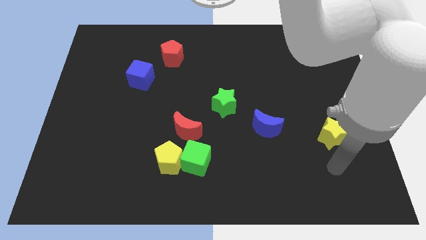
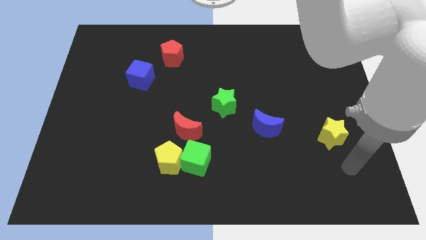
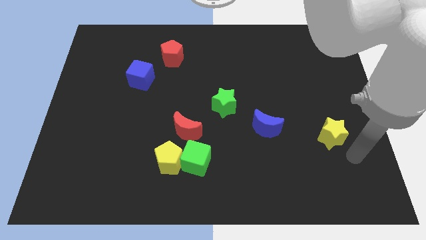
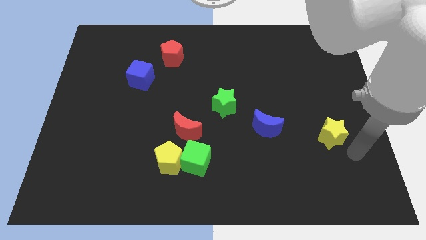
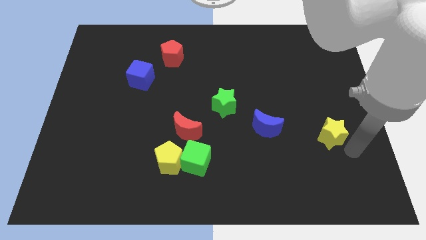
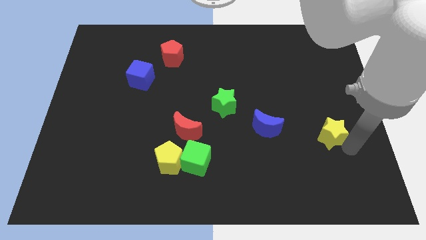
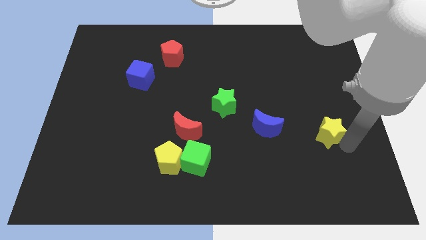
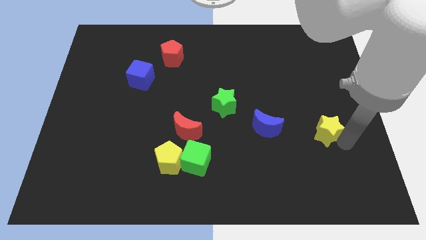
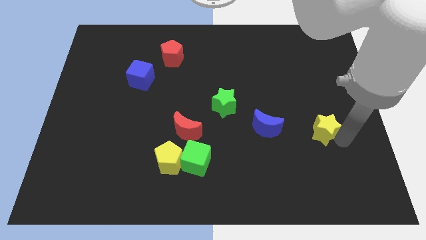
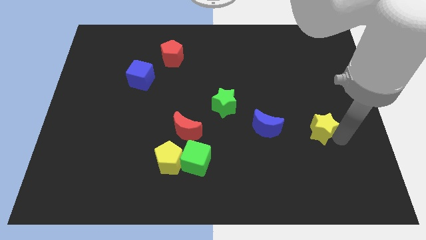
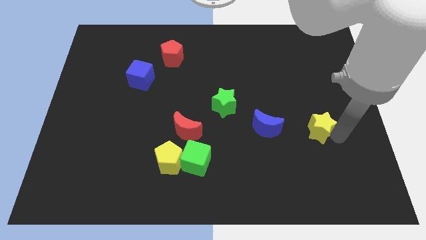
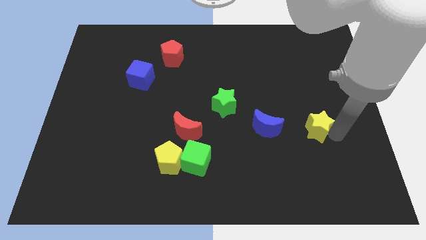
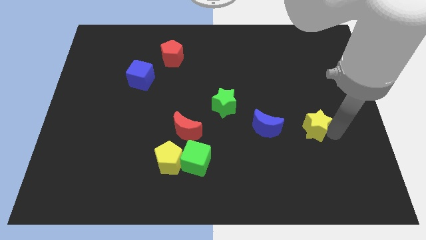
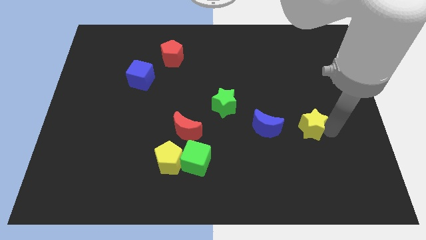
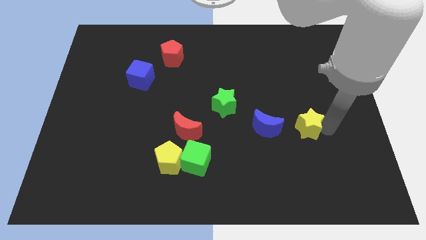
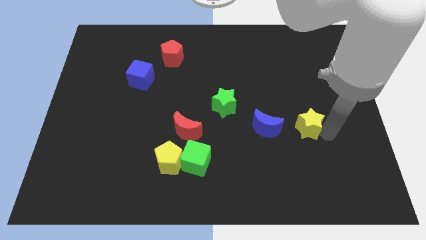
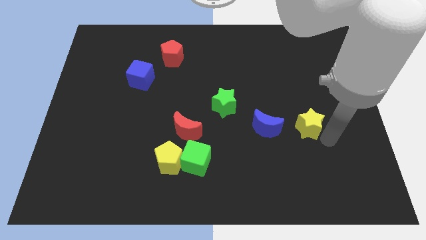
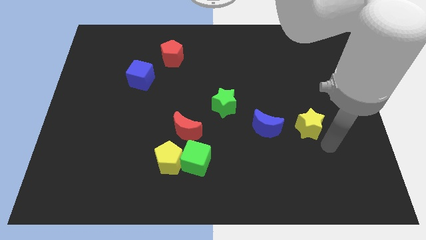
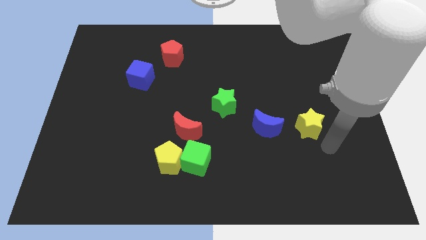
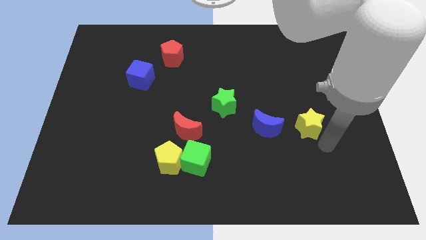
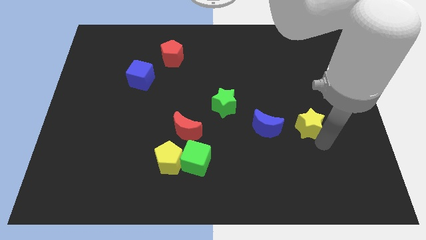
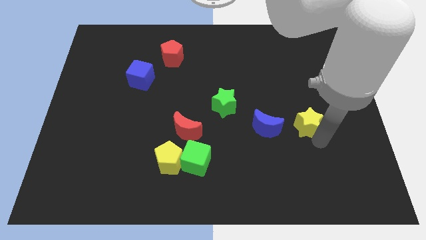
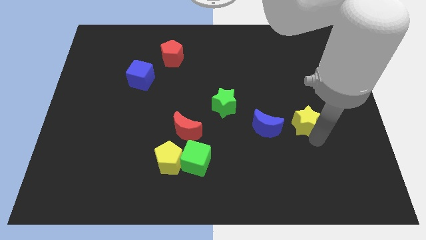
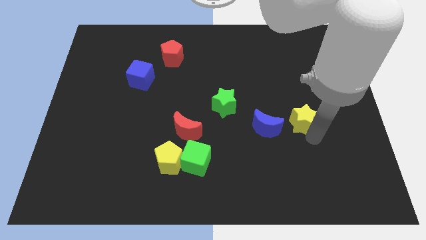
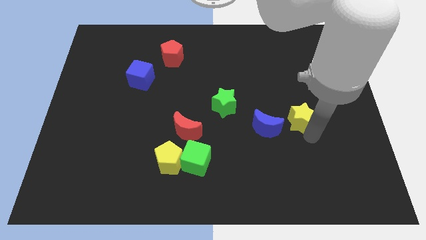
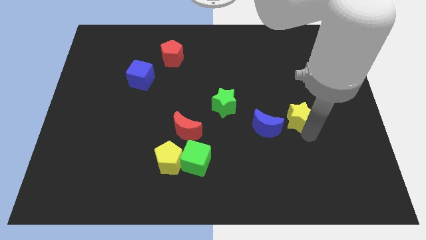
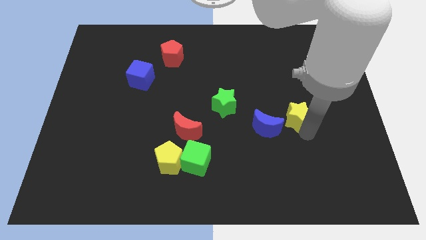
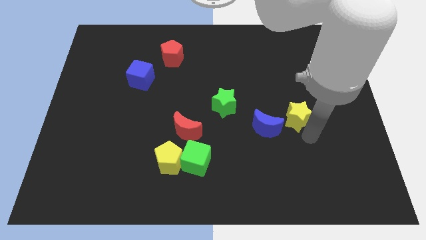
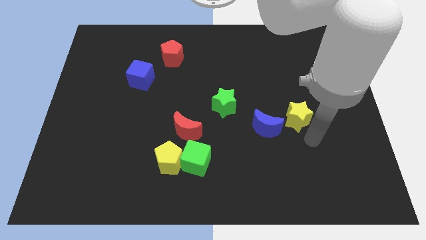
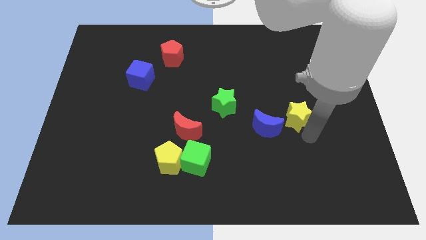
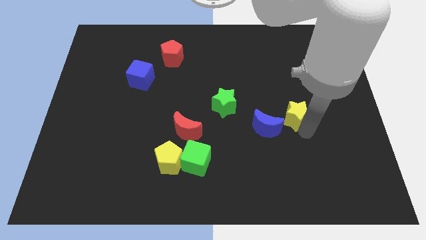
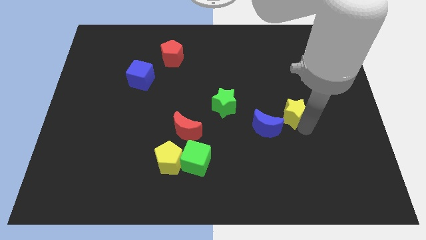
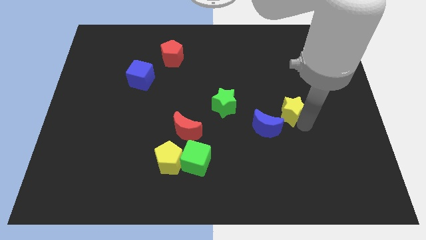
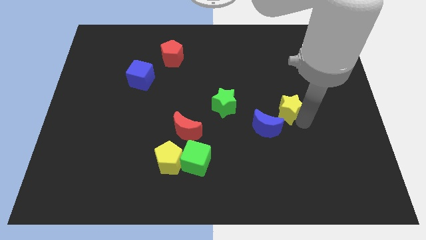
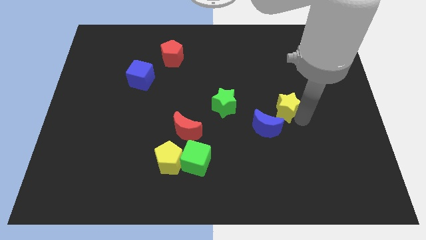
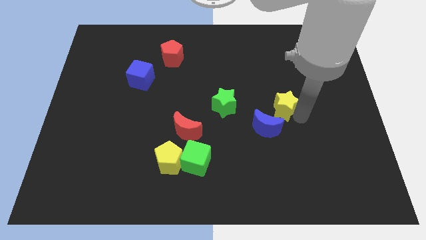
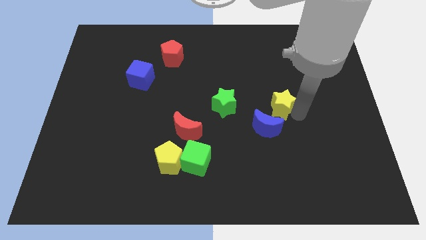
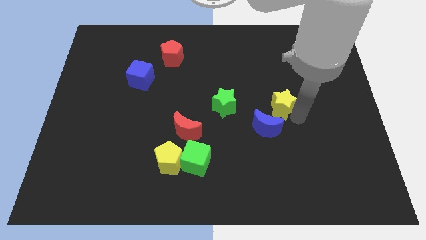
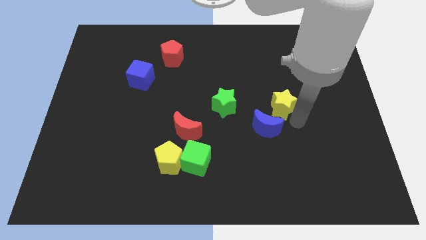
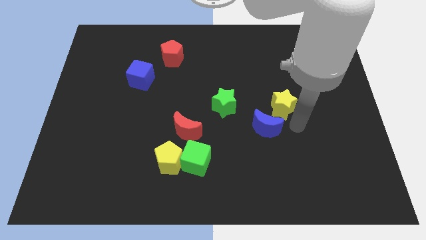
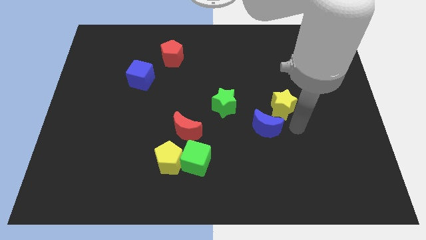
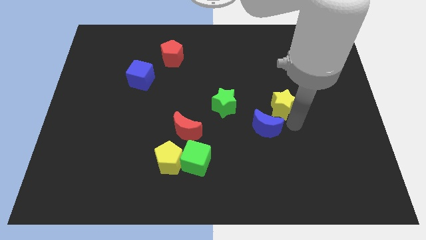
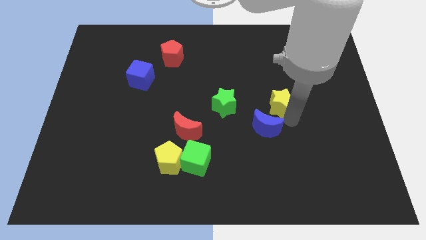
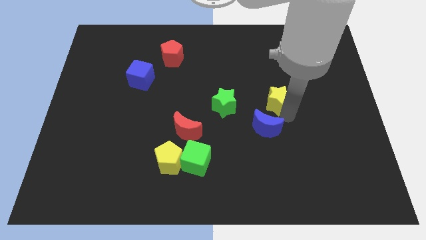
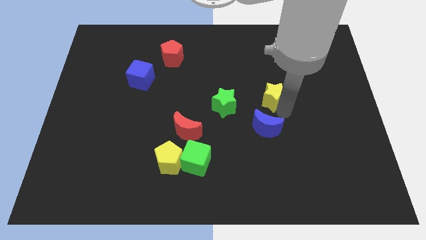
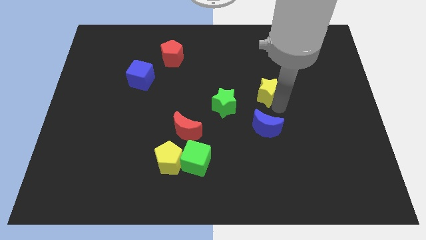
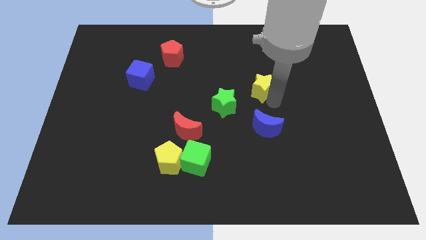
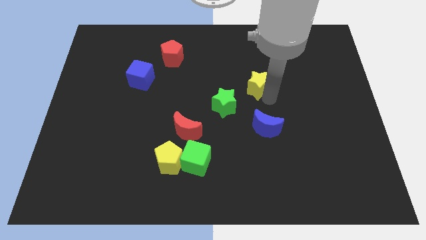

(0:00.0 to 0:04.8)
push the yellow star upwards and to the left

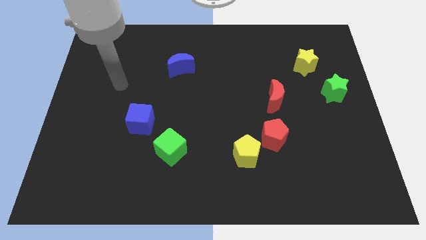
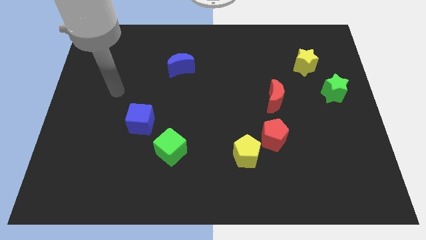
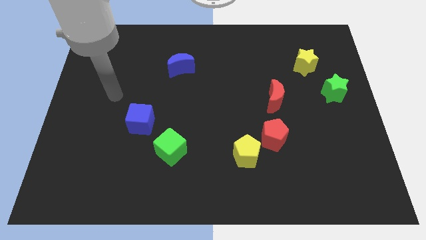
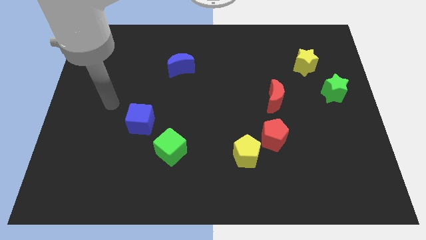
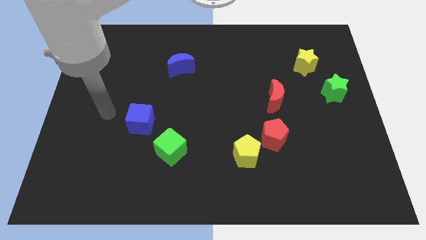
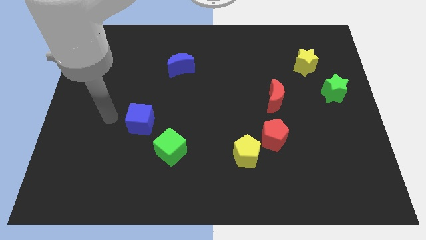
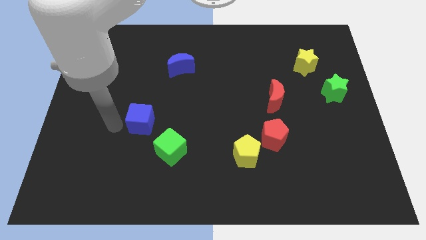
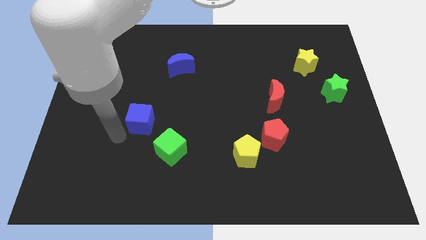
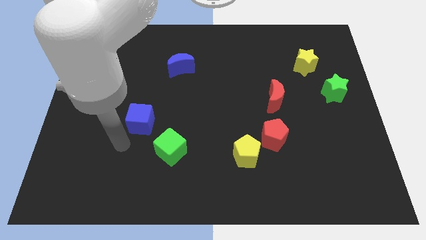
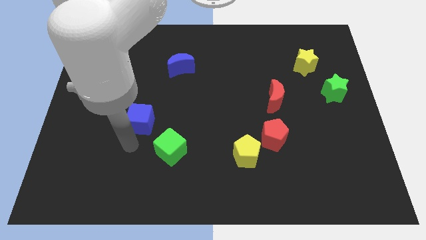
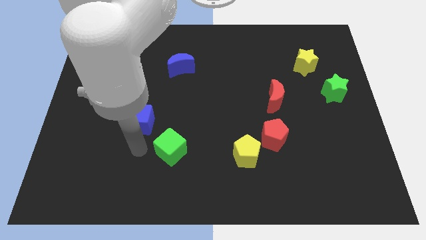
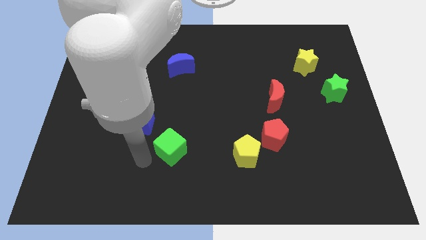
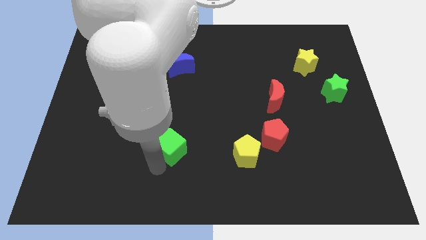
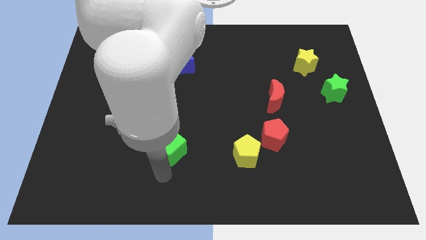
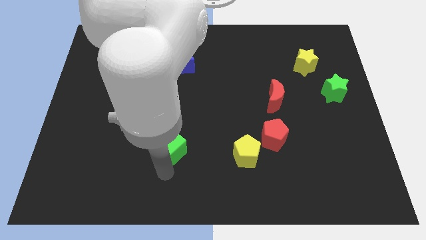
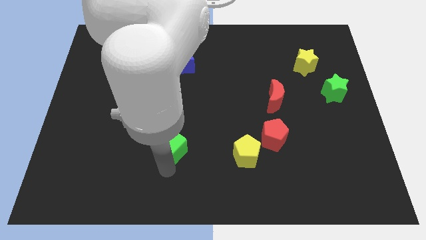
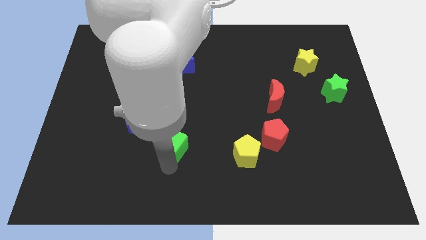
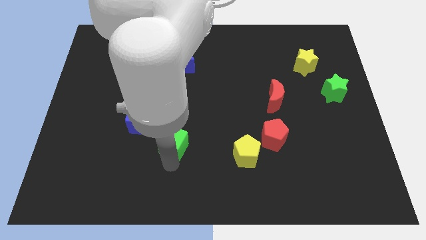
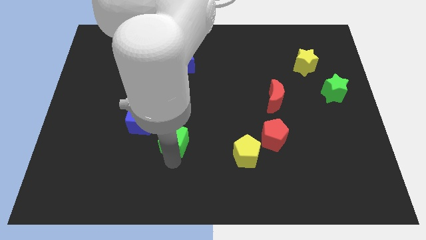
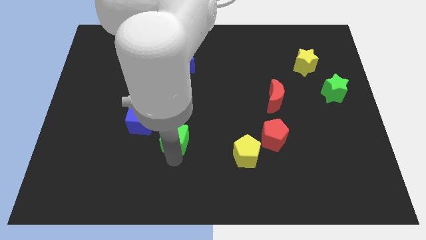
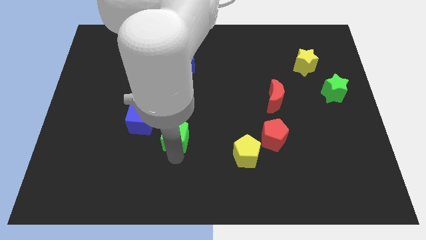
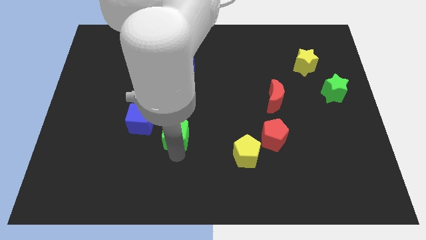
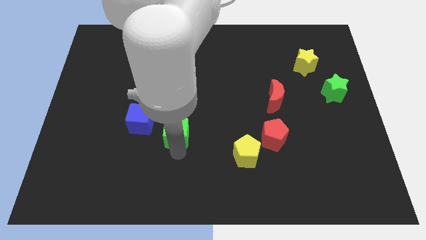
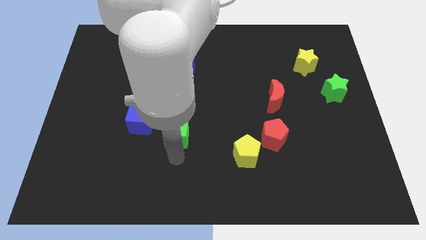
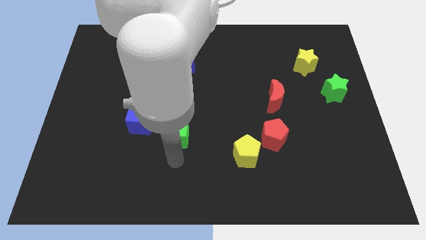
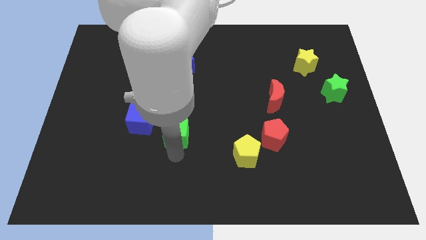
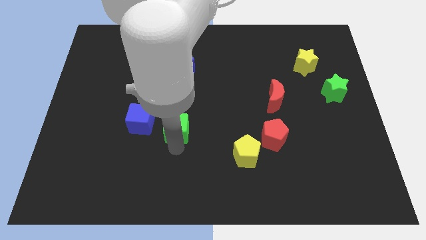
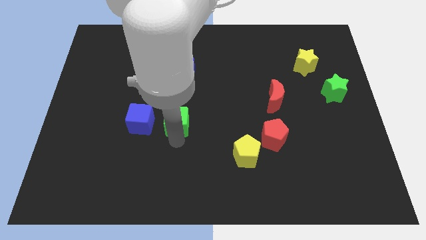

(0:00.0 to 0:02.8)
move the green cube upwards a bit

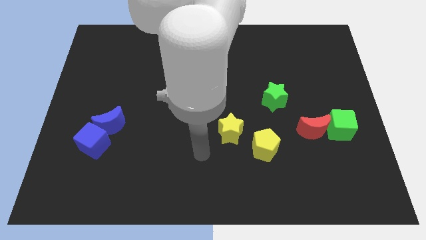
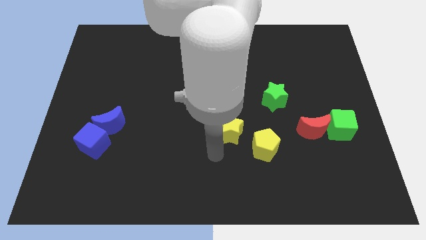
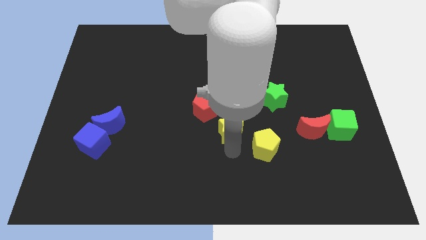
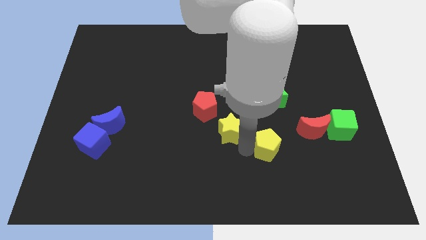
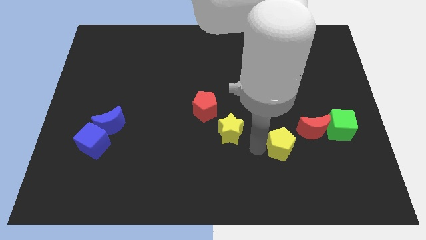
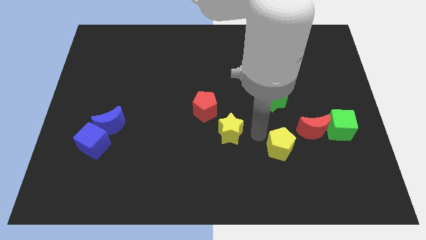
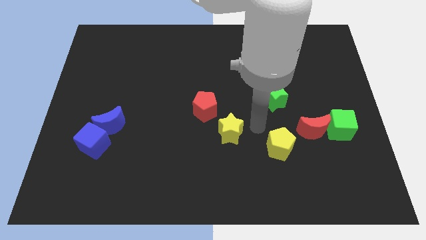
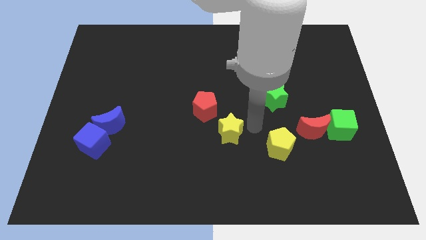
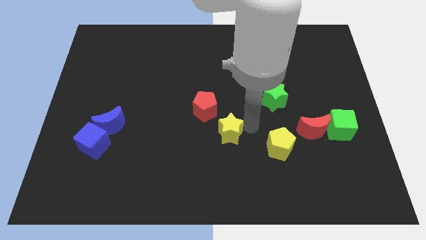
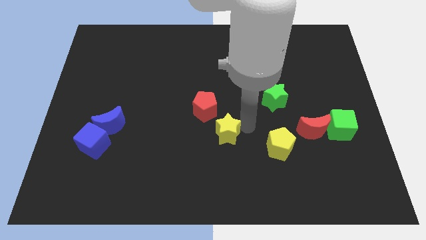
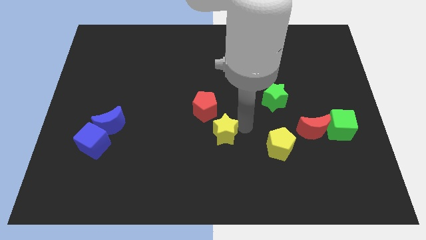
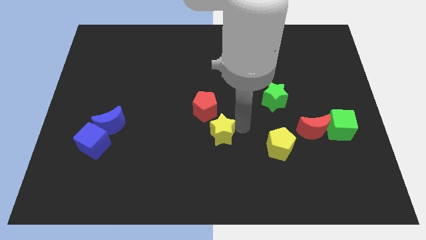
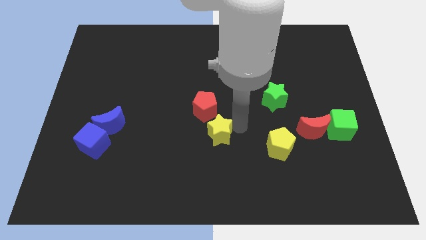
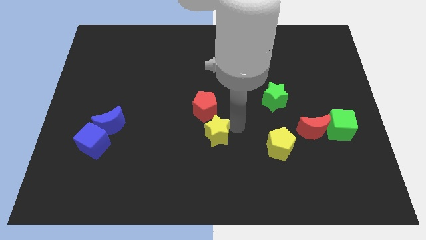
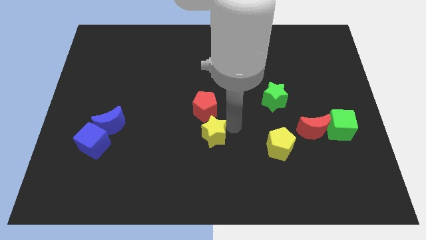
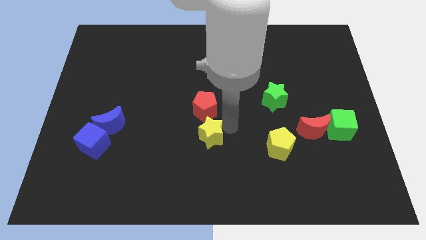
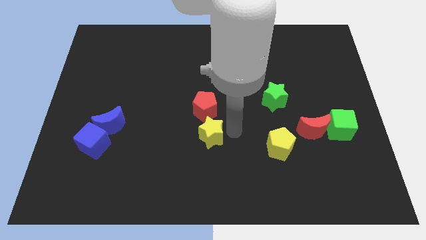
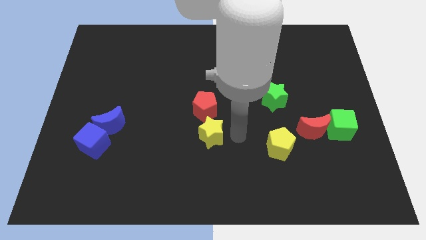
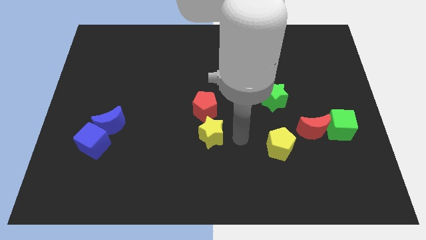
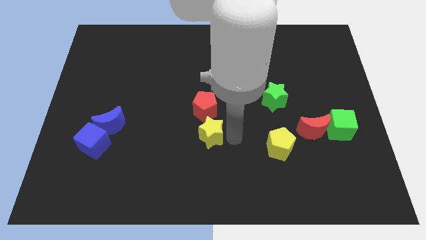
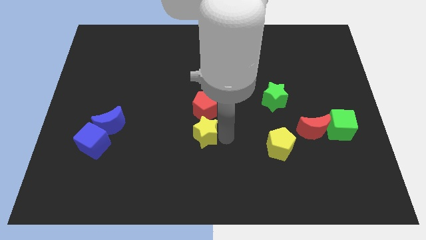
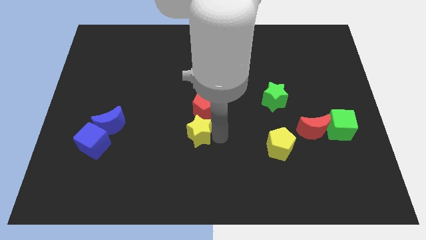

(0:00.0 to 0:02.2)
move the yellow star to the left a bit
